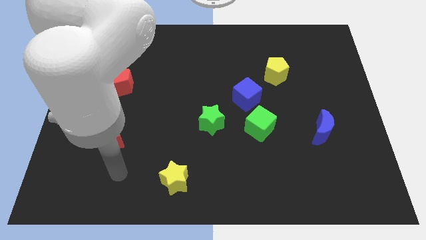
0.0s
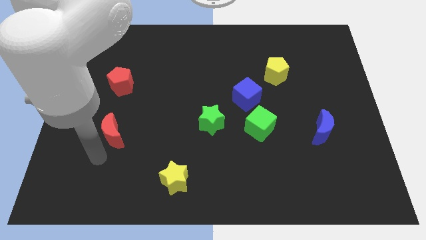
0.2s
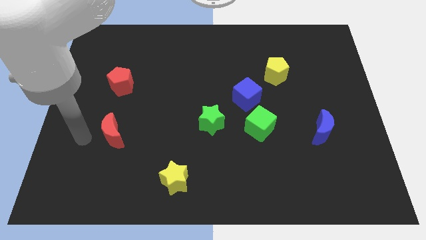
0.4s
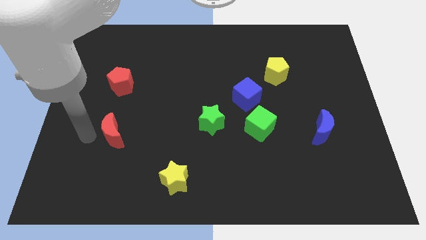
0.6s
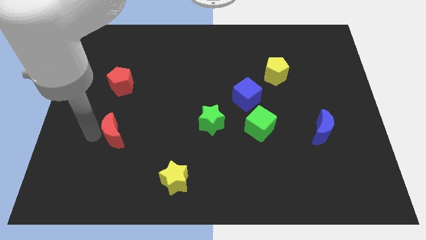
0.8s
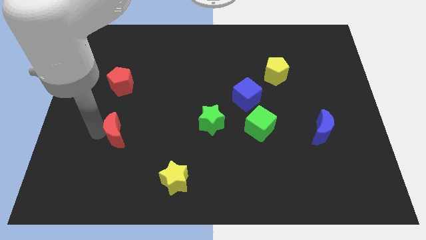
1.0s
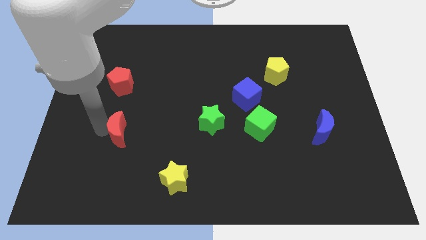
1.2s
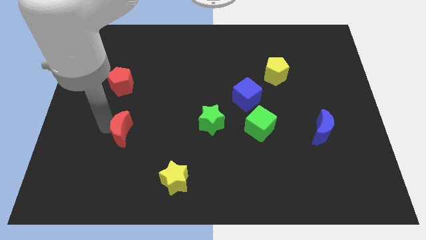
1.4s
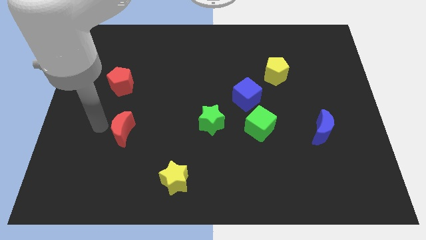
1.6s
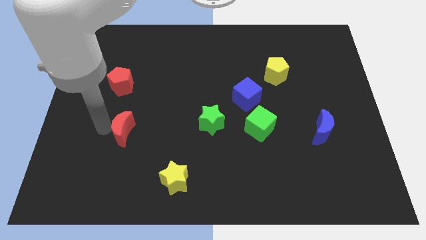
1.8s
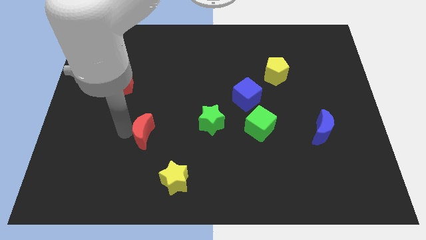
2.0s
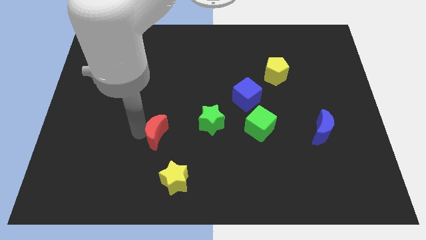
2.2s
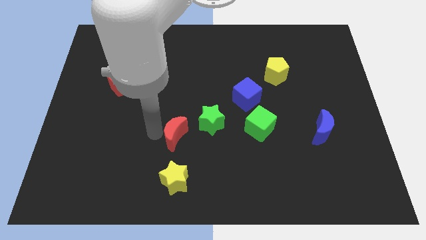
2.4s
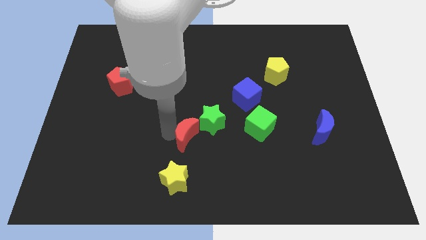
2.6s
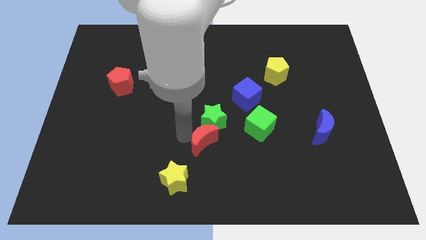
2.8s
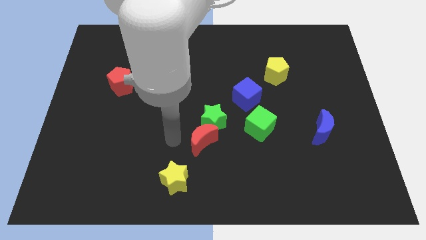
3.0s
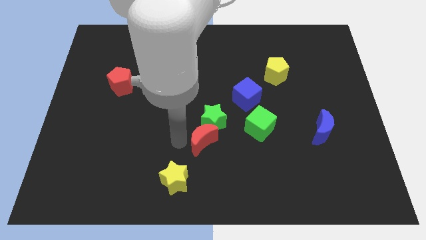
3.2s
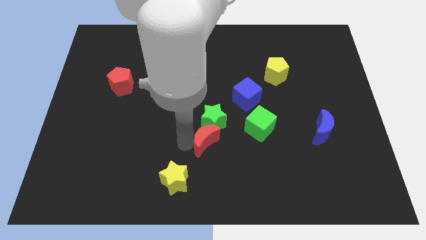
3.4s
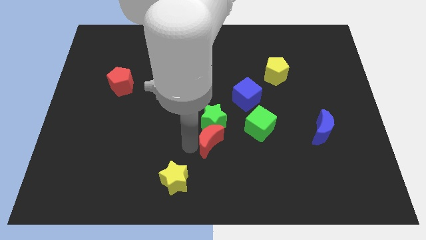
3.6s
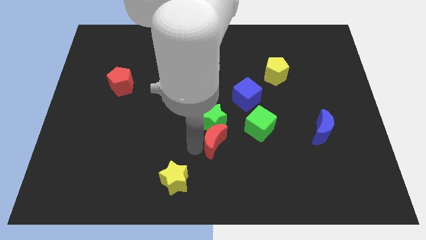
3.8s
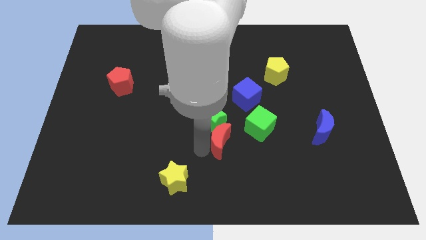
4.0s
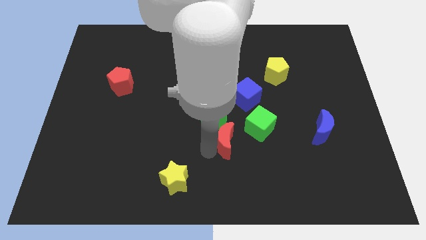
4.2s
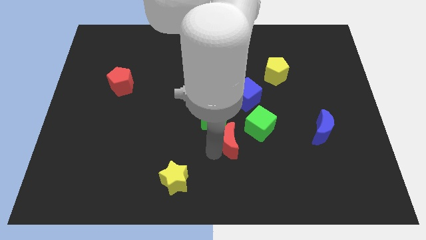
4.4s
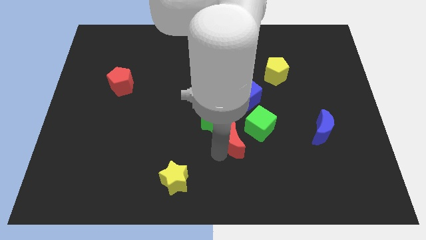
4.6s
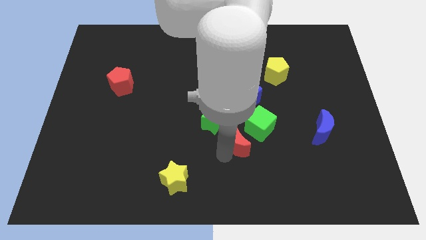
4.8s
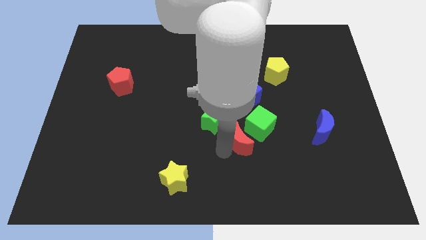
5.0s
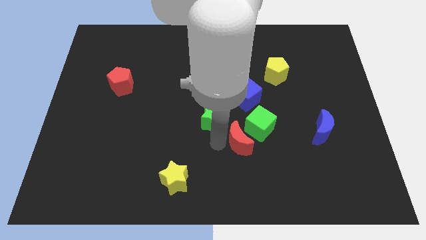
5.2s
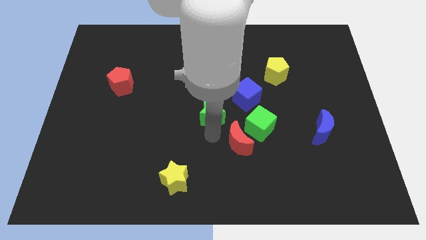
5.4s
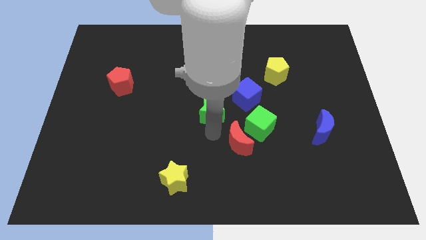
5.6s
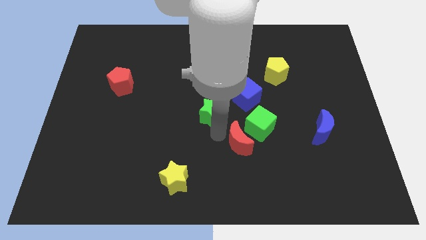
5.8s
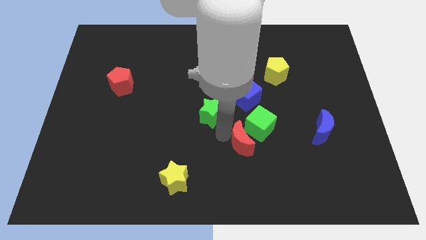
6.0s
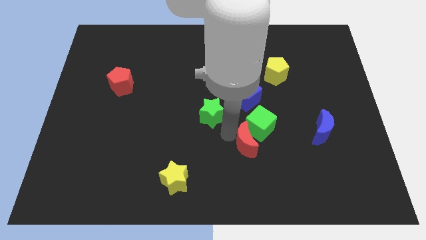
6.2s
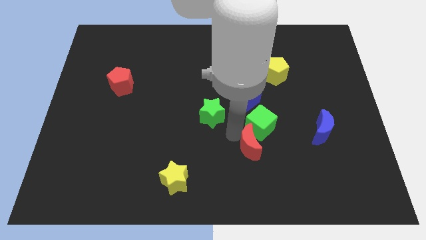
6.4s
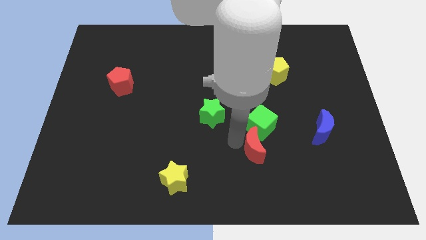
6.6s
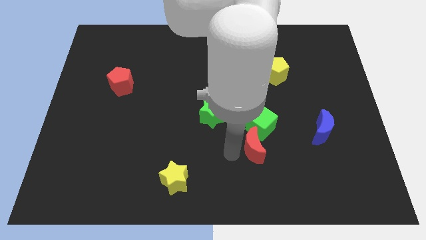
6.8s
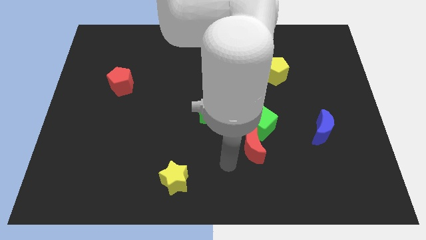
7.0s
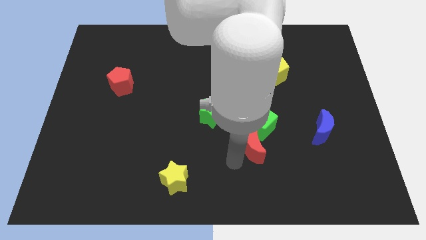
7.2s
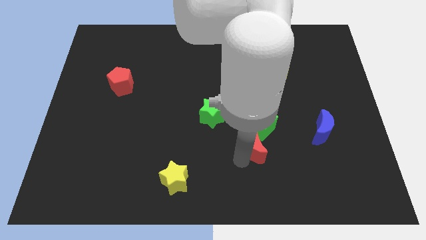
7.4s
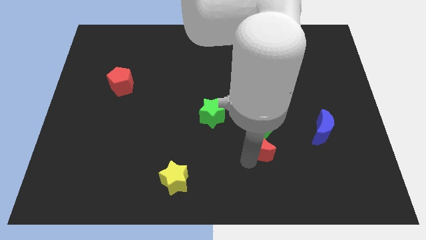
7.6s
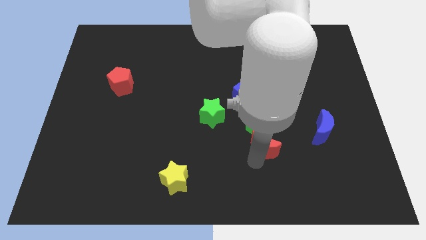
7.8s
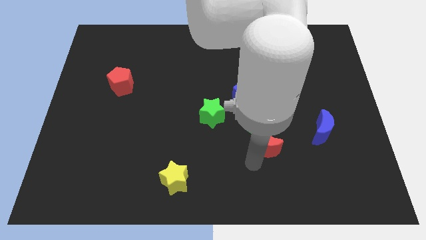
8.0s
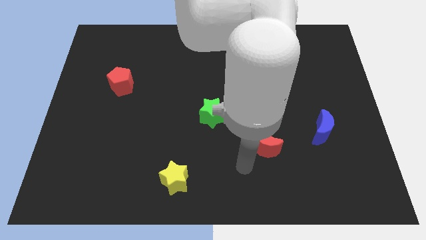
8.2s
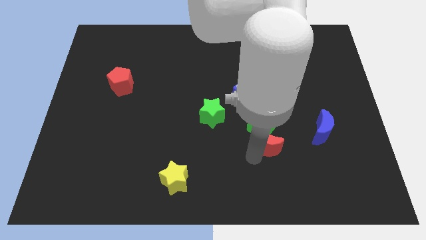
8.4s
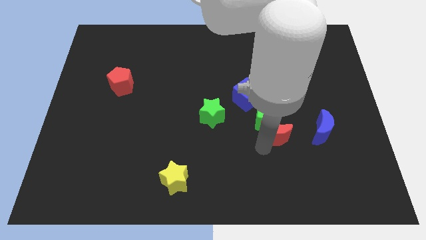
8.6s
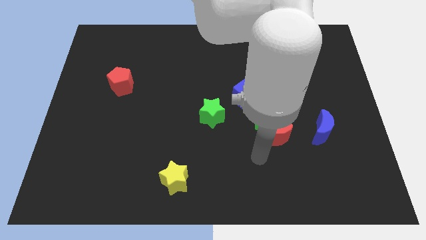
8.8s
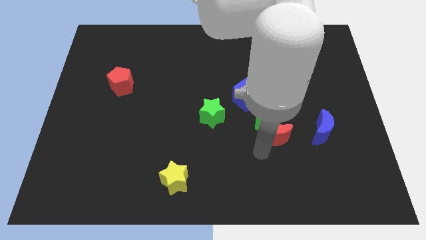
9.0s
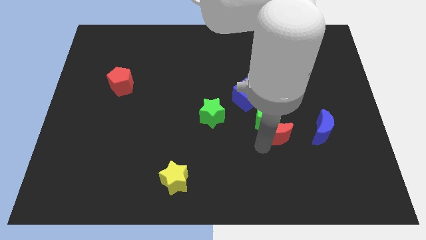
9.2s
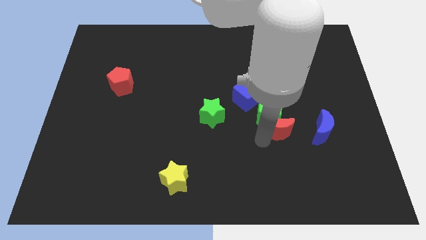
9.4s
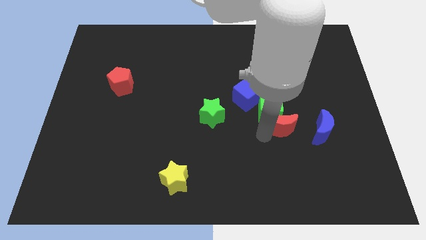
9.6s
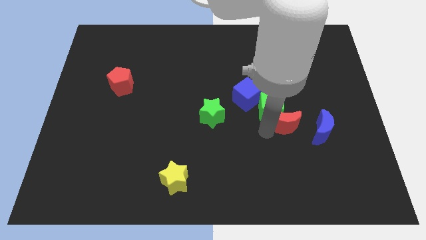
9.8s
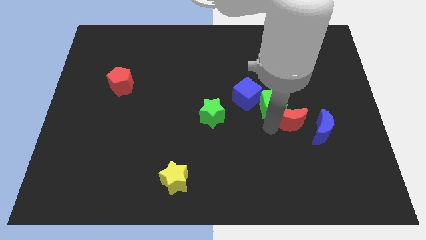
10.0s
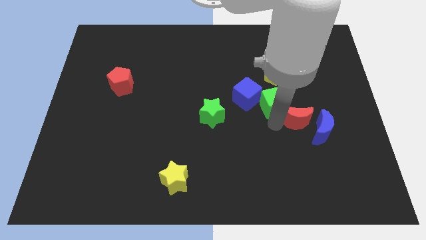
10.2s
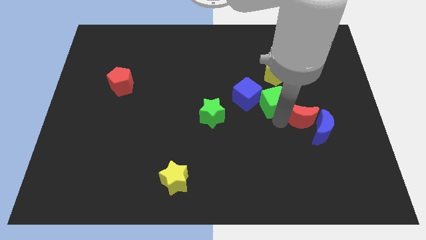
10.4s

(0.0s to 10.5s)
move the red moon above the blue moon

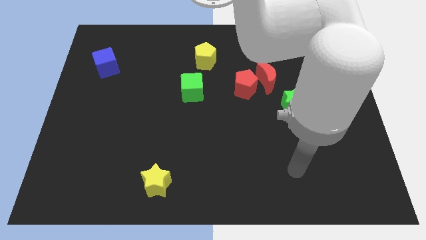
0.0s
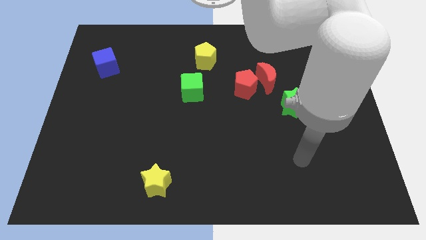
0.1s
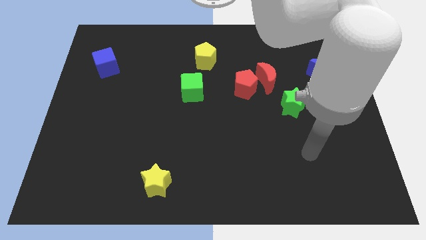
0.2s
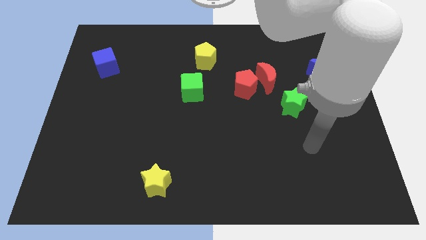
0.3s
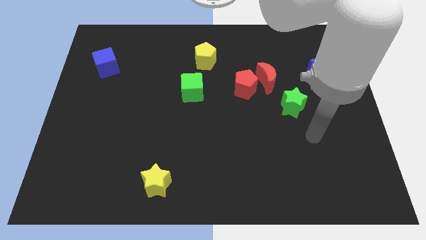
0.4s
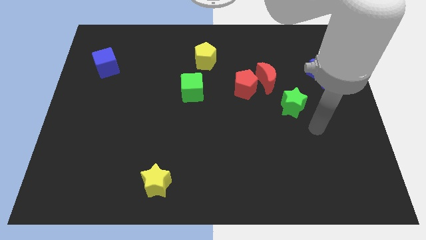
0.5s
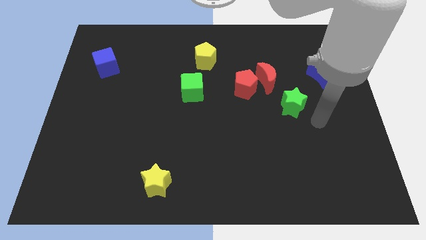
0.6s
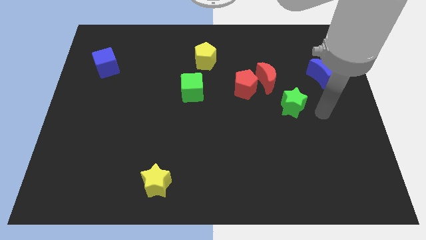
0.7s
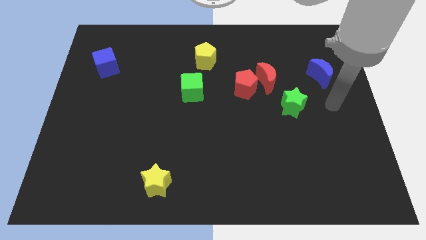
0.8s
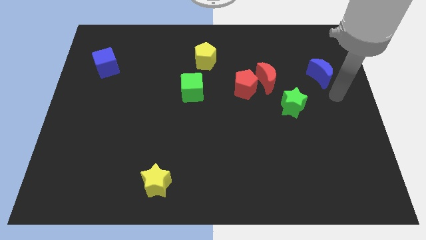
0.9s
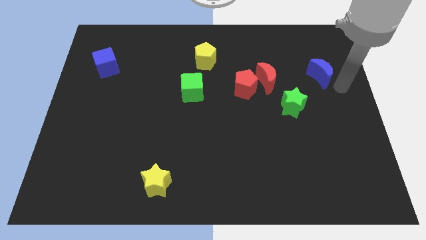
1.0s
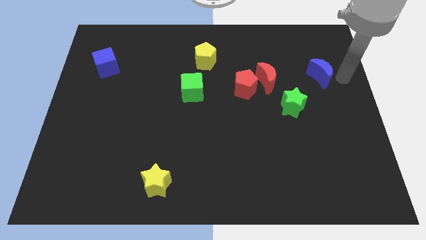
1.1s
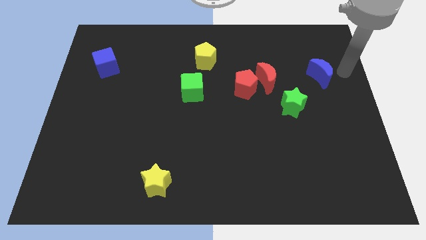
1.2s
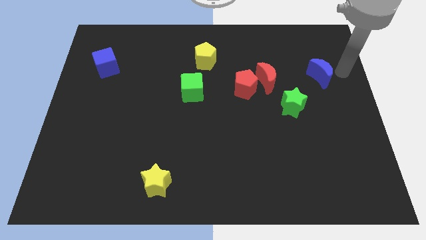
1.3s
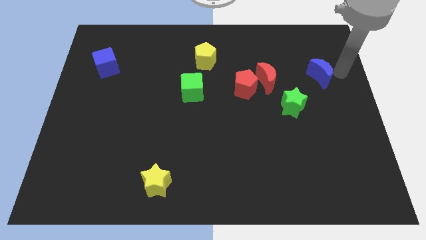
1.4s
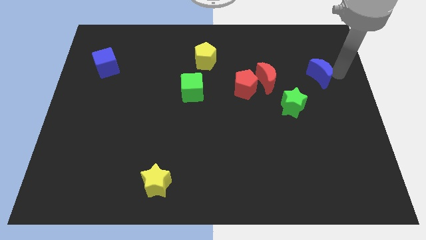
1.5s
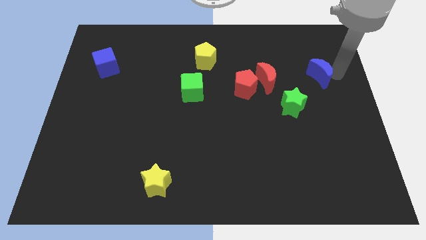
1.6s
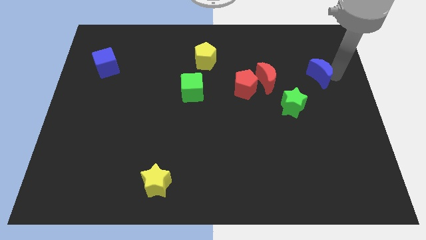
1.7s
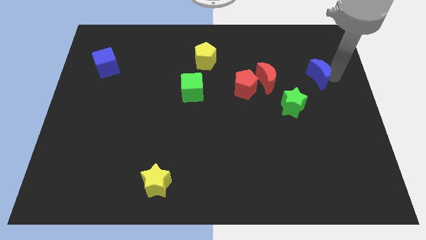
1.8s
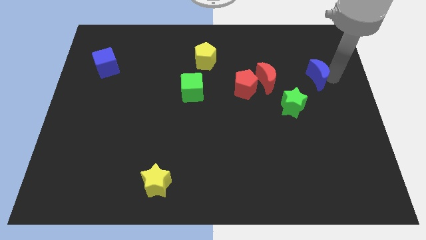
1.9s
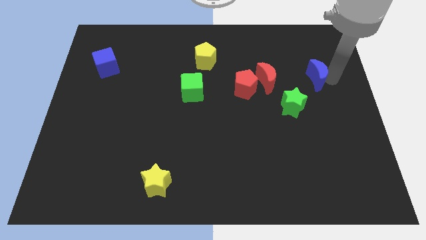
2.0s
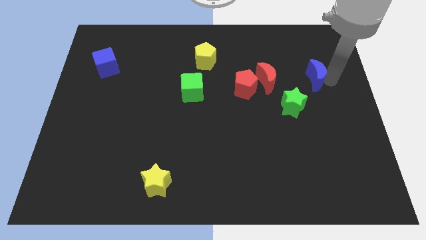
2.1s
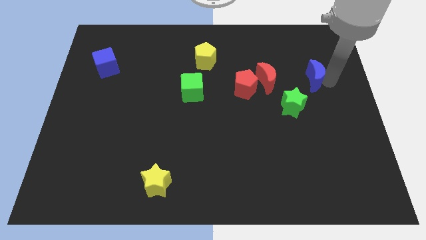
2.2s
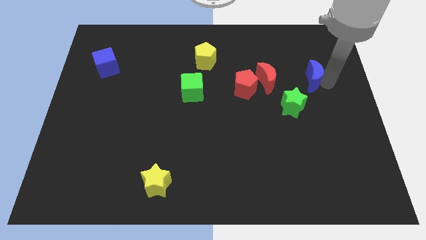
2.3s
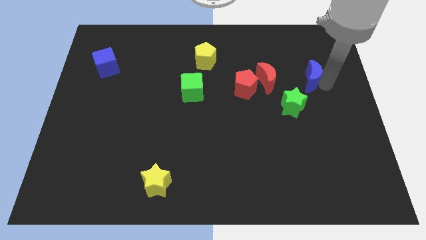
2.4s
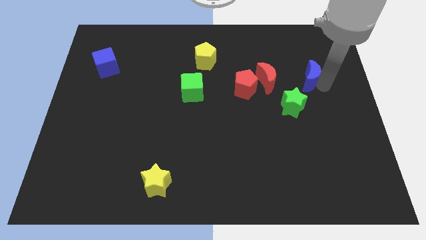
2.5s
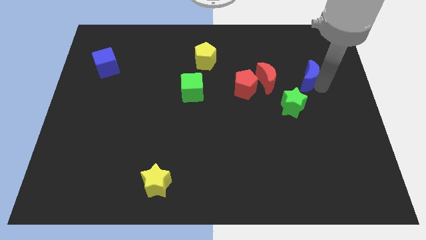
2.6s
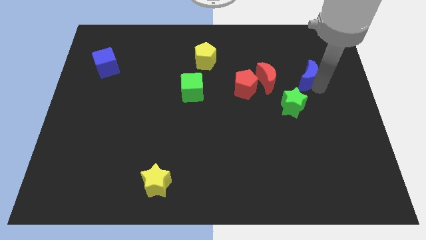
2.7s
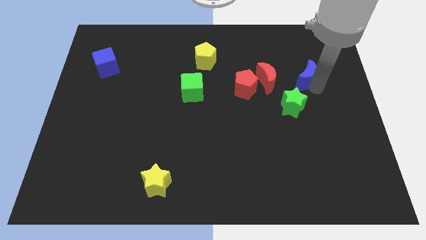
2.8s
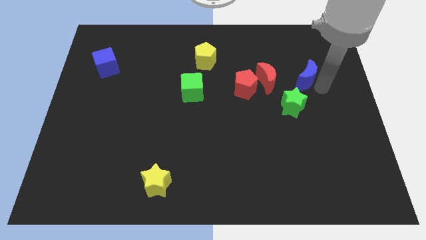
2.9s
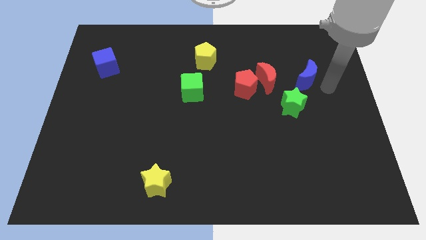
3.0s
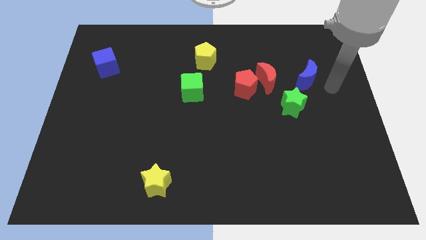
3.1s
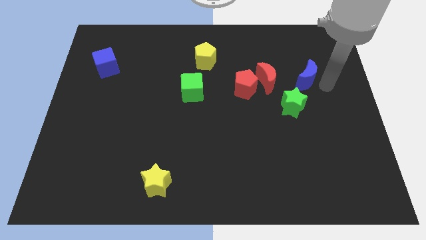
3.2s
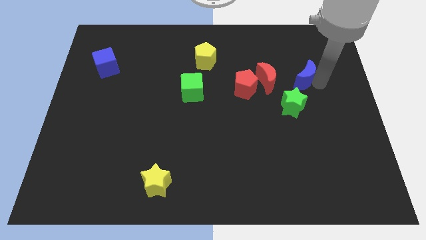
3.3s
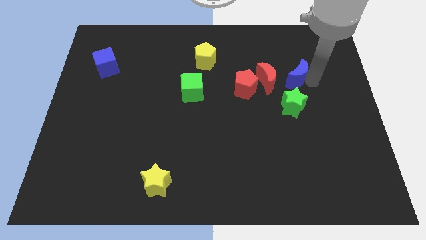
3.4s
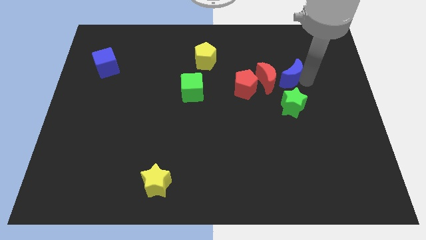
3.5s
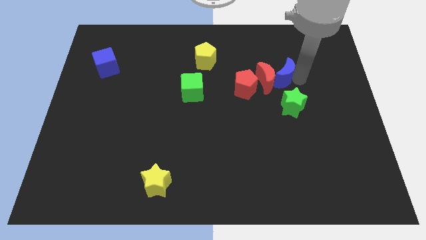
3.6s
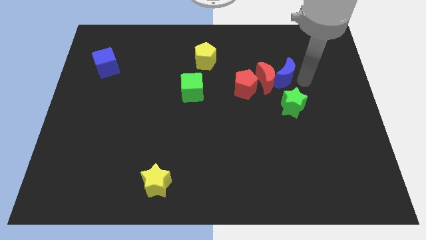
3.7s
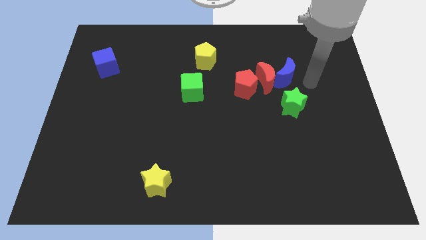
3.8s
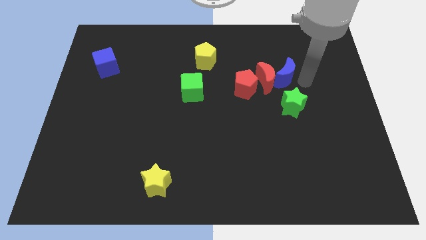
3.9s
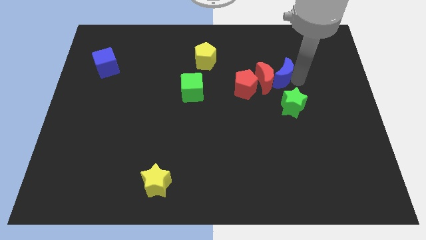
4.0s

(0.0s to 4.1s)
put the blue moon diagonally up and to the right of the red pentagon
